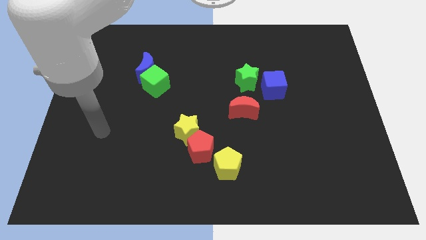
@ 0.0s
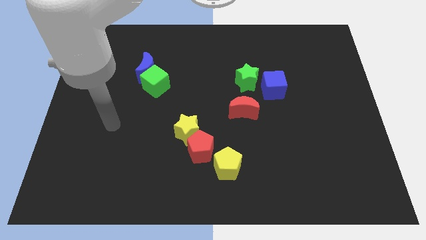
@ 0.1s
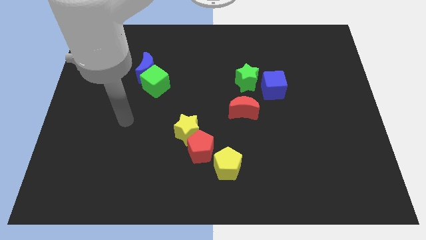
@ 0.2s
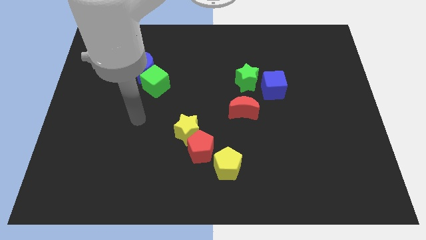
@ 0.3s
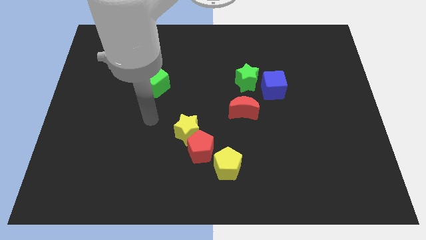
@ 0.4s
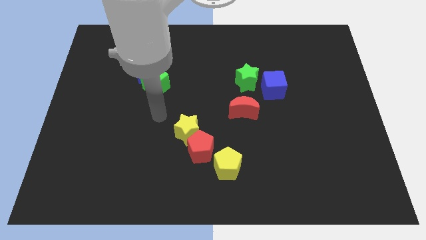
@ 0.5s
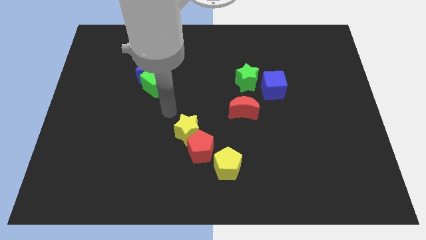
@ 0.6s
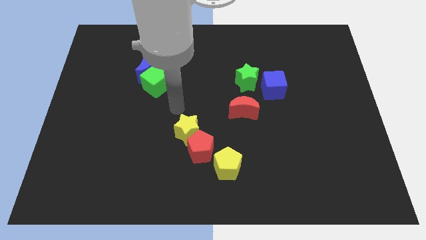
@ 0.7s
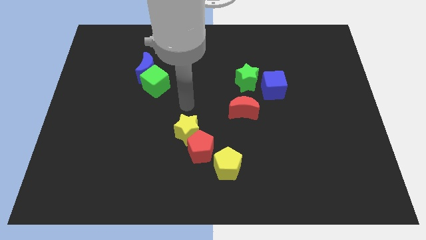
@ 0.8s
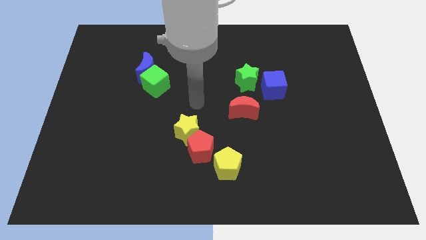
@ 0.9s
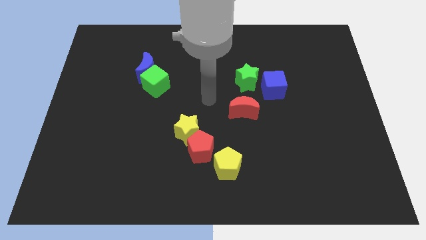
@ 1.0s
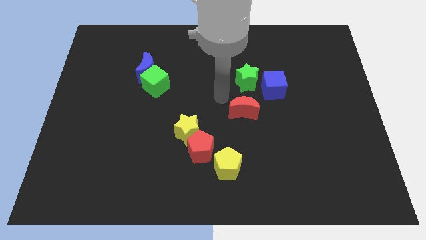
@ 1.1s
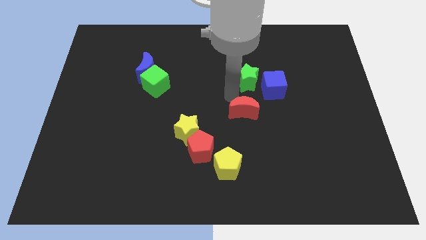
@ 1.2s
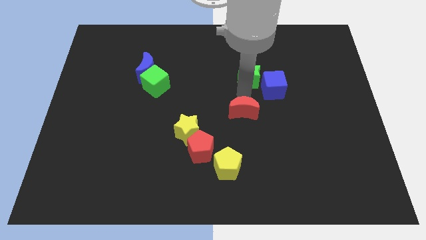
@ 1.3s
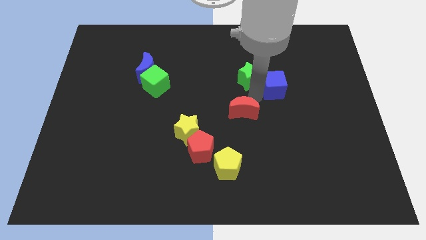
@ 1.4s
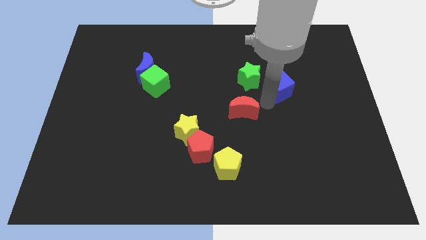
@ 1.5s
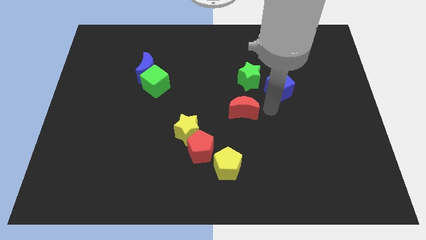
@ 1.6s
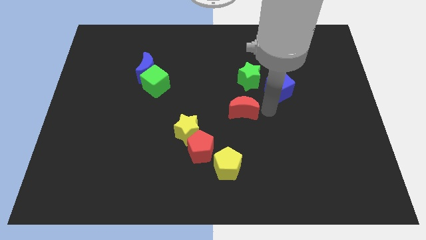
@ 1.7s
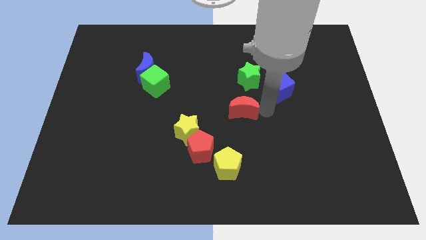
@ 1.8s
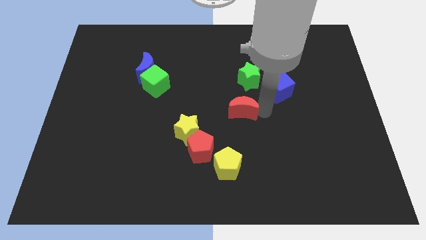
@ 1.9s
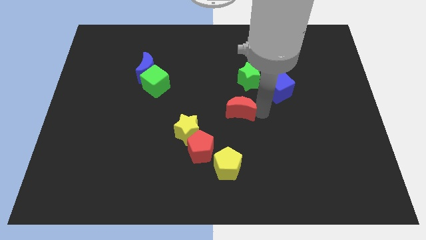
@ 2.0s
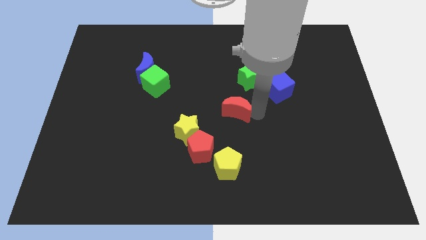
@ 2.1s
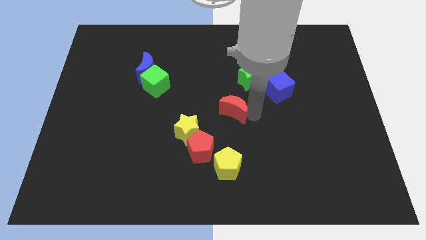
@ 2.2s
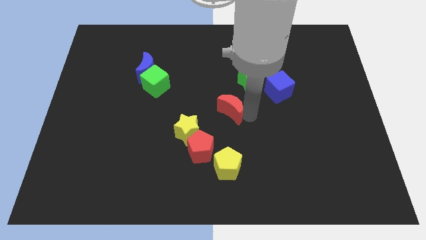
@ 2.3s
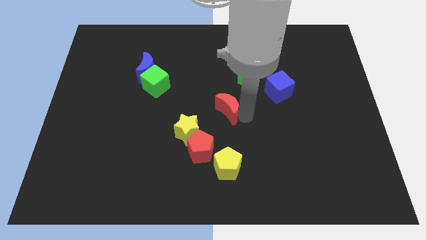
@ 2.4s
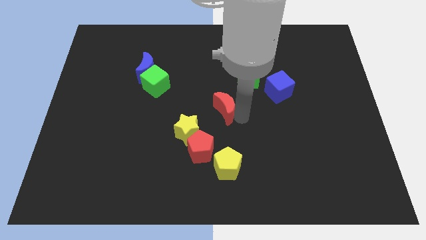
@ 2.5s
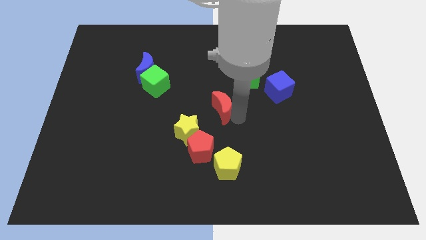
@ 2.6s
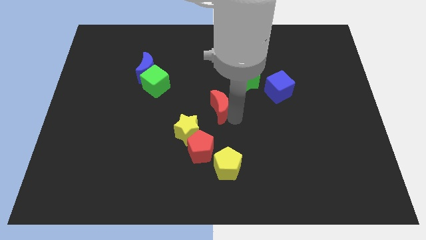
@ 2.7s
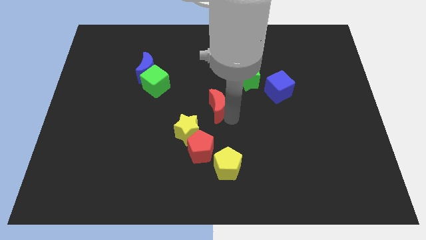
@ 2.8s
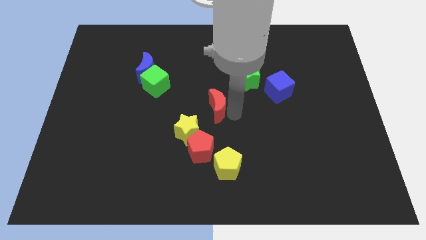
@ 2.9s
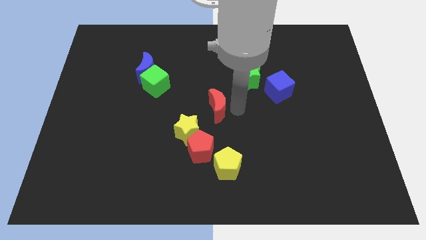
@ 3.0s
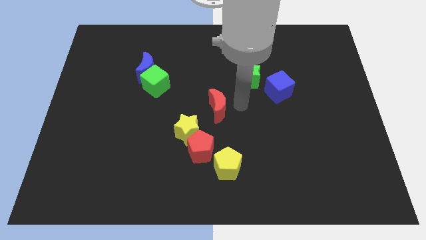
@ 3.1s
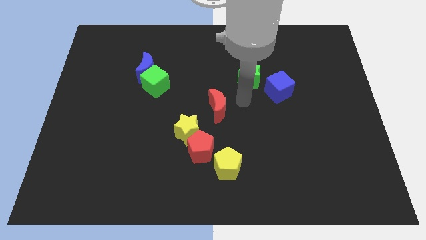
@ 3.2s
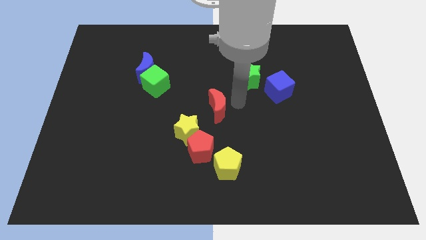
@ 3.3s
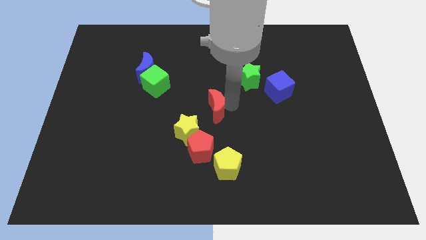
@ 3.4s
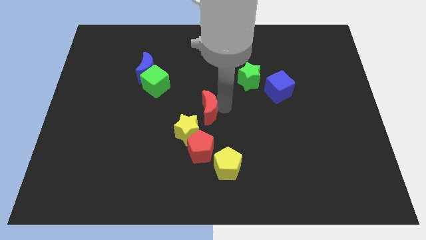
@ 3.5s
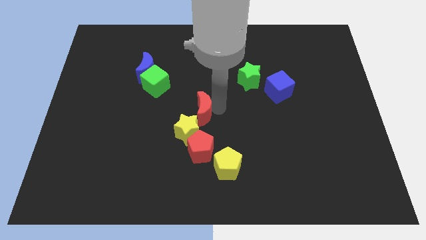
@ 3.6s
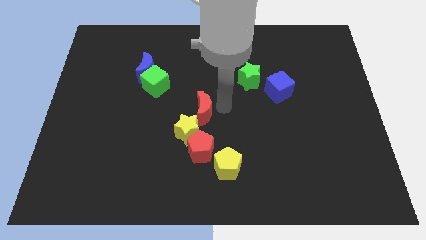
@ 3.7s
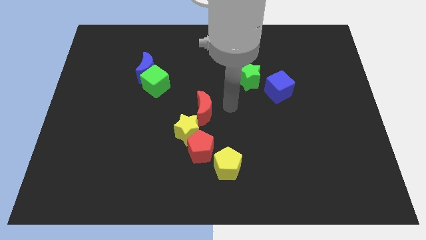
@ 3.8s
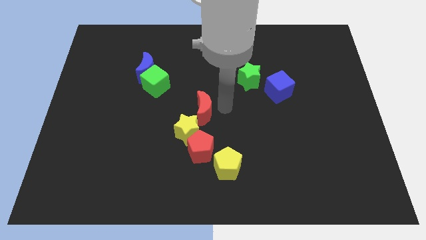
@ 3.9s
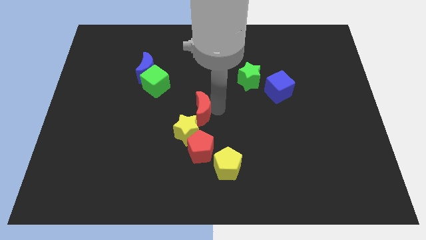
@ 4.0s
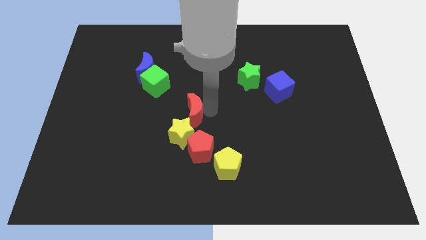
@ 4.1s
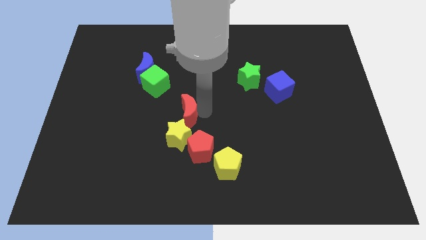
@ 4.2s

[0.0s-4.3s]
push the red moon down and then left a little

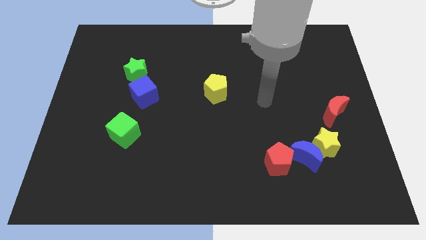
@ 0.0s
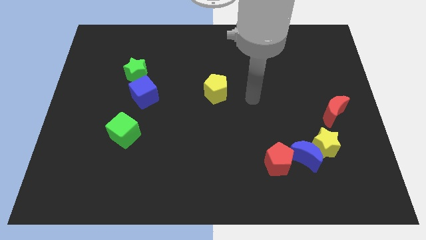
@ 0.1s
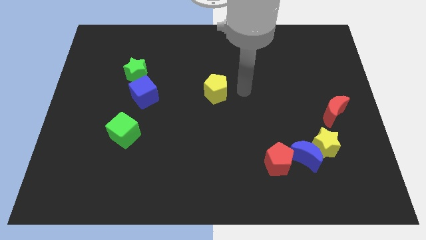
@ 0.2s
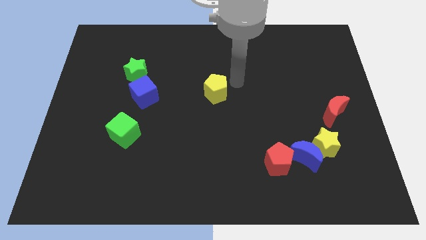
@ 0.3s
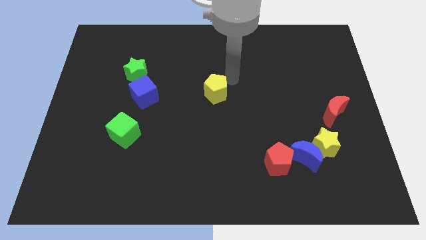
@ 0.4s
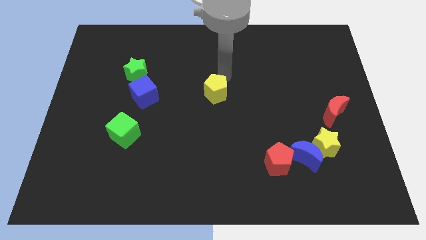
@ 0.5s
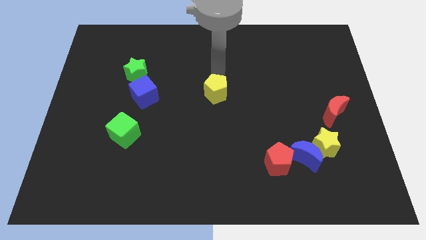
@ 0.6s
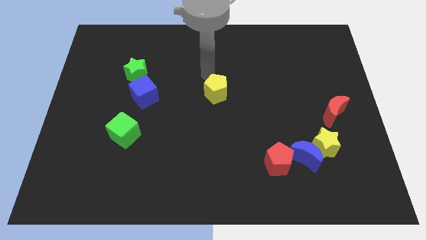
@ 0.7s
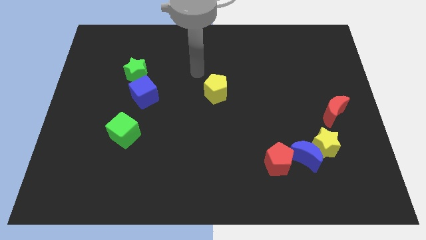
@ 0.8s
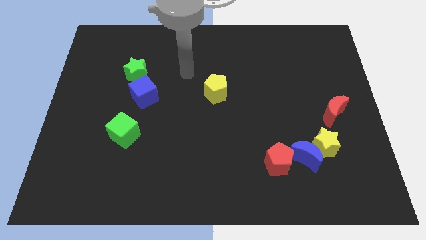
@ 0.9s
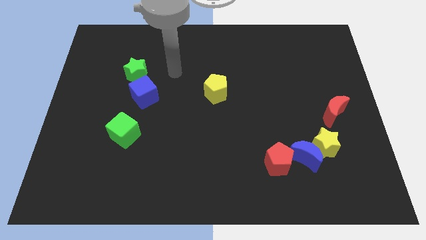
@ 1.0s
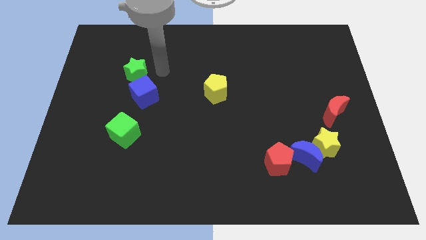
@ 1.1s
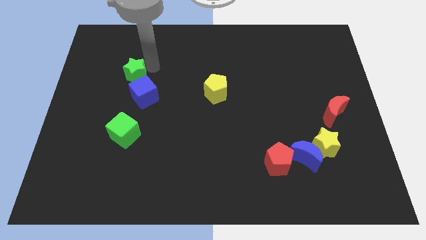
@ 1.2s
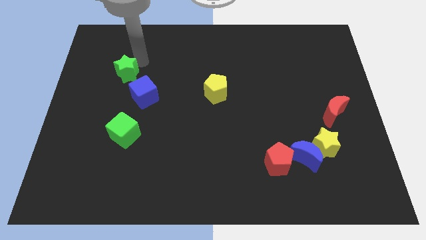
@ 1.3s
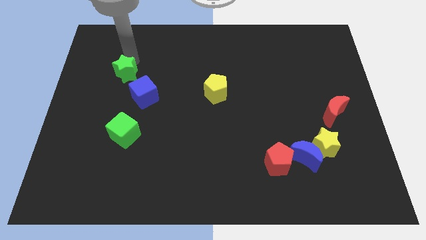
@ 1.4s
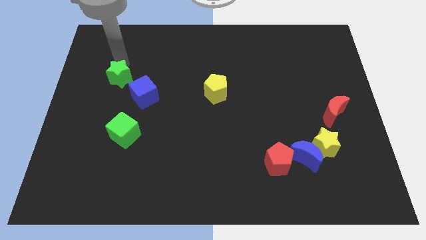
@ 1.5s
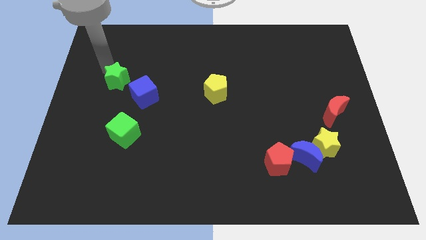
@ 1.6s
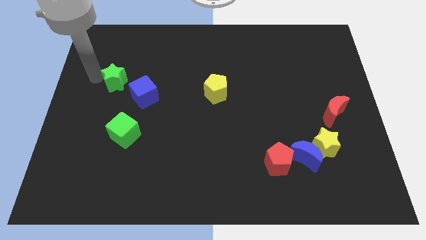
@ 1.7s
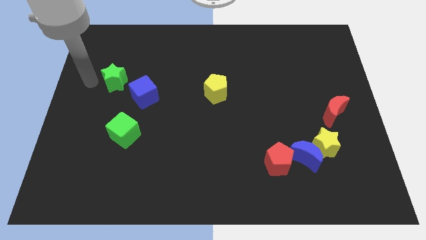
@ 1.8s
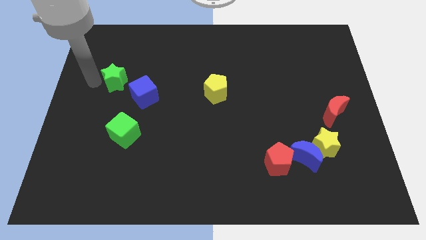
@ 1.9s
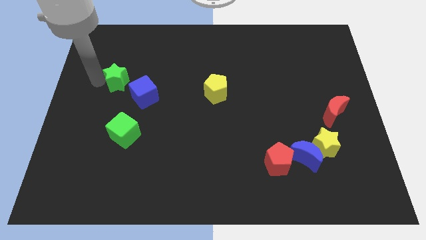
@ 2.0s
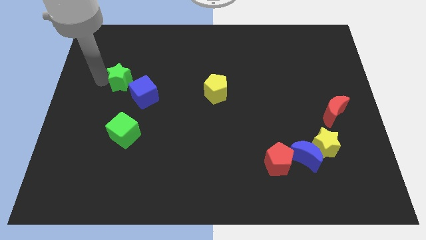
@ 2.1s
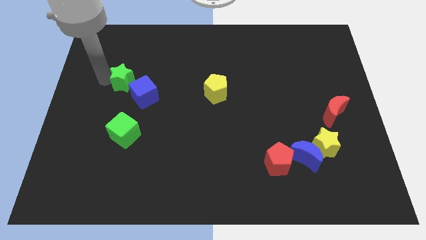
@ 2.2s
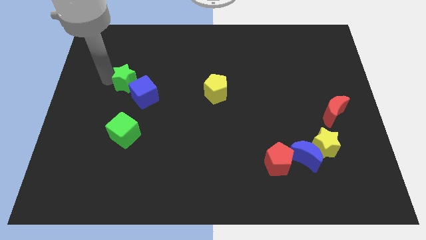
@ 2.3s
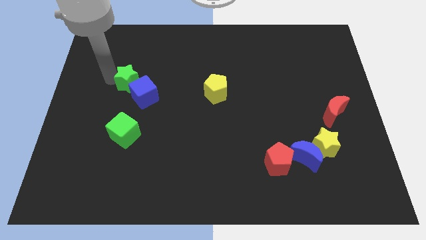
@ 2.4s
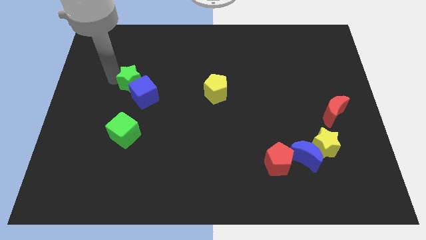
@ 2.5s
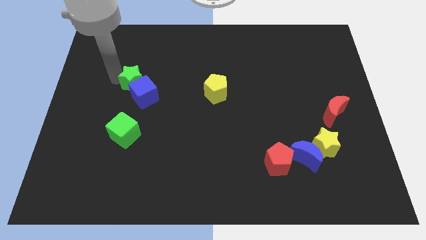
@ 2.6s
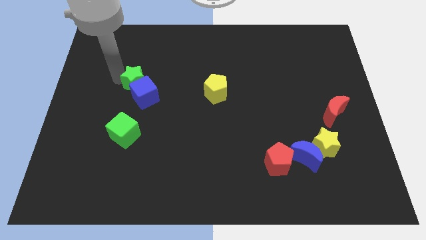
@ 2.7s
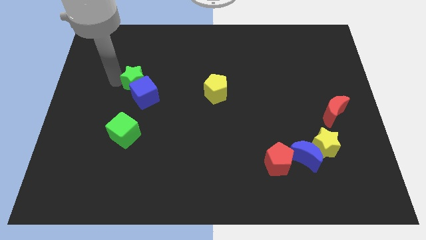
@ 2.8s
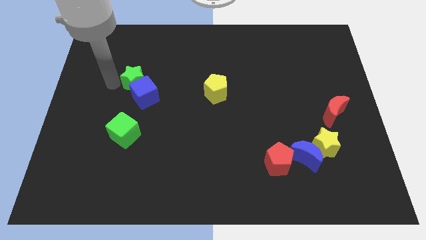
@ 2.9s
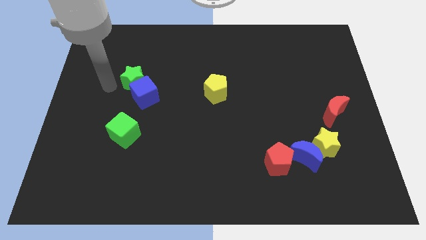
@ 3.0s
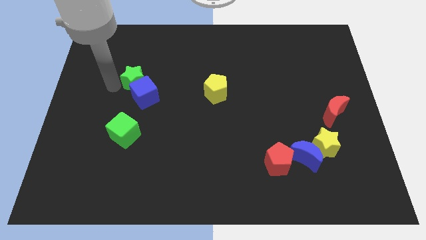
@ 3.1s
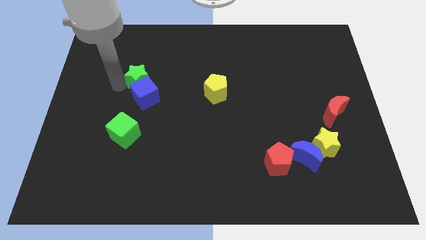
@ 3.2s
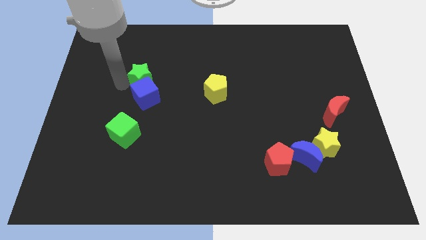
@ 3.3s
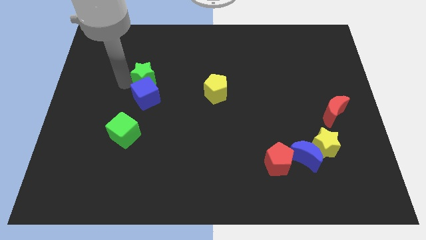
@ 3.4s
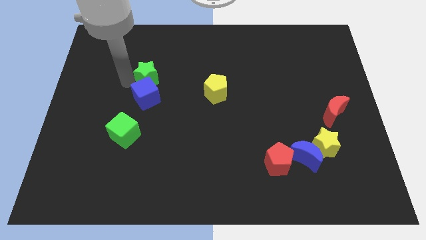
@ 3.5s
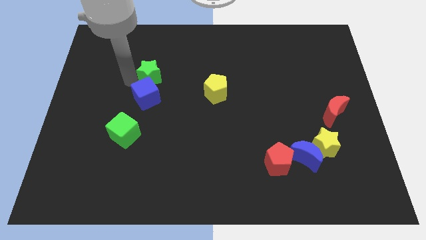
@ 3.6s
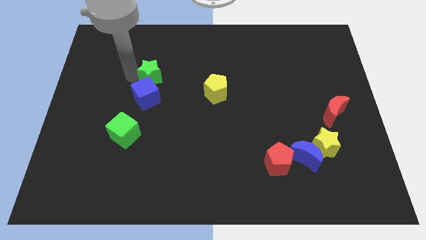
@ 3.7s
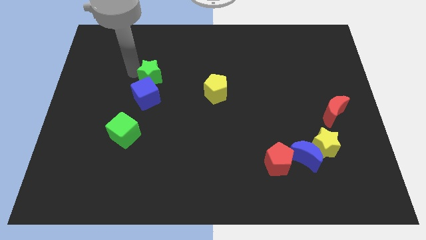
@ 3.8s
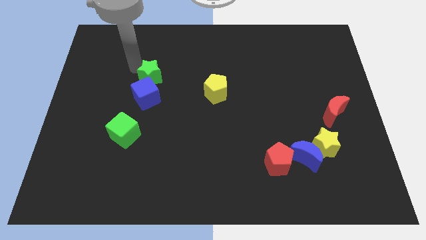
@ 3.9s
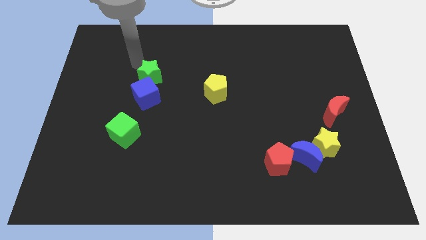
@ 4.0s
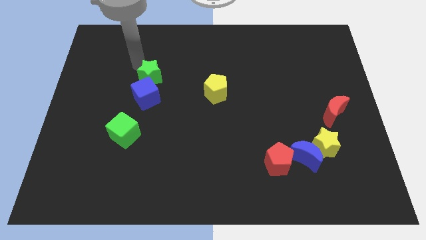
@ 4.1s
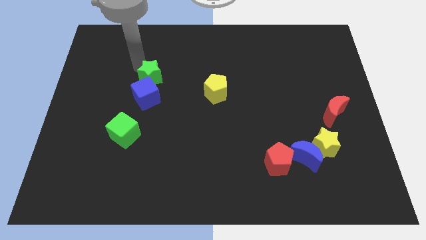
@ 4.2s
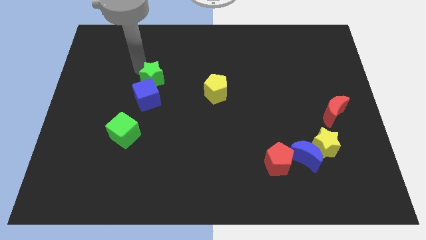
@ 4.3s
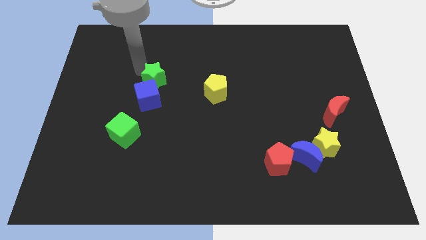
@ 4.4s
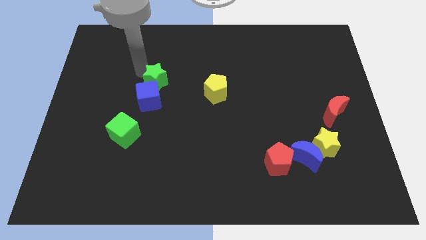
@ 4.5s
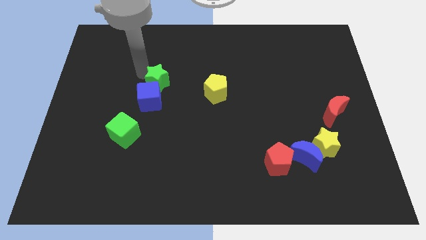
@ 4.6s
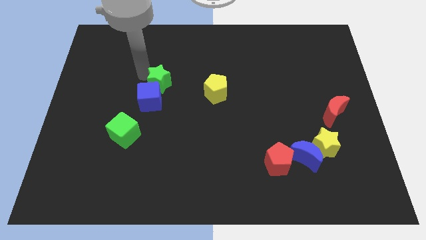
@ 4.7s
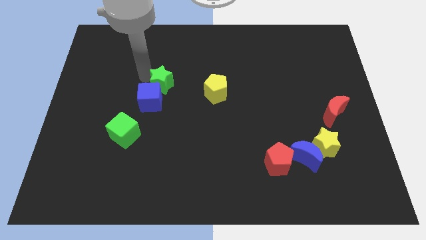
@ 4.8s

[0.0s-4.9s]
slightly push the green star down and to the right diagonally
